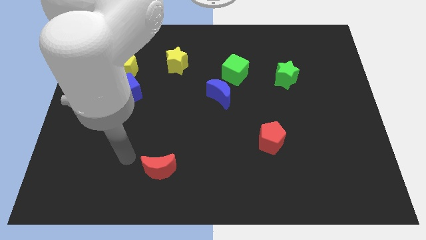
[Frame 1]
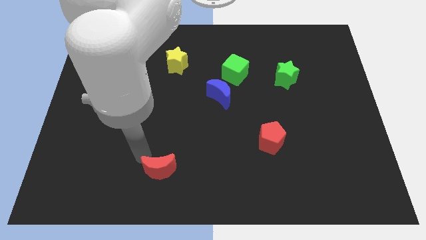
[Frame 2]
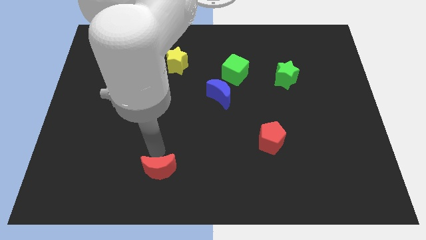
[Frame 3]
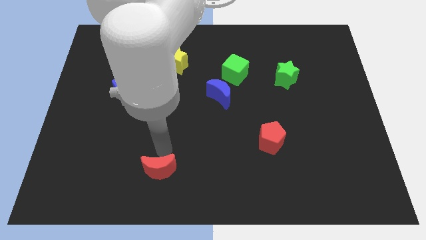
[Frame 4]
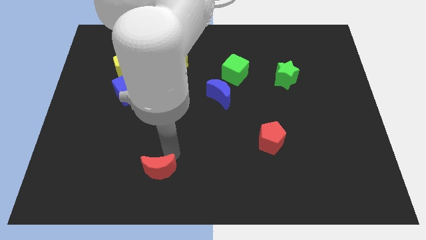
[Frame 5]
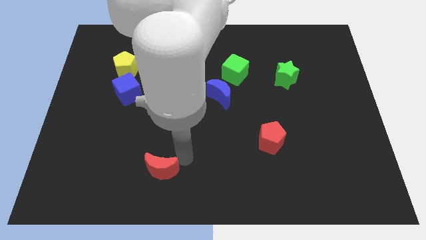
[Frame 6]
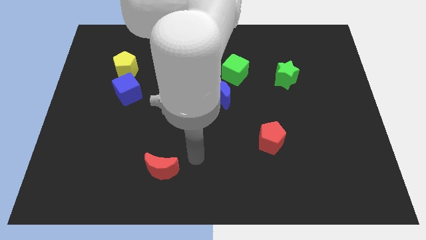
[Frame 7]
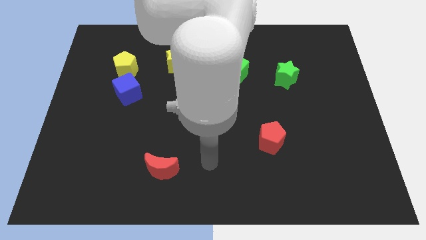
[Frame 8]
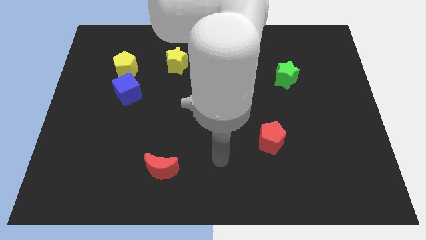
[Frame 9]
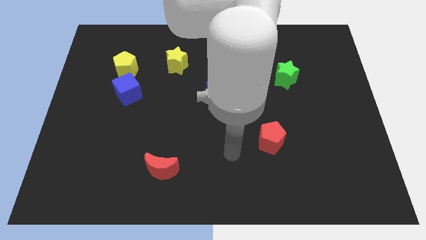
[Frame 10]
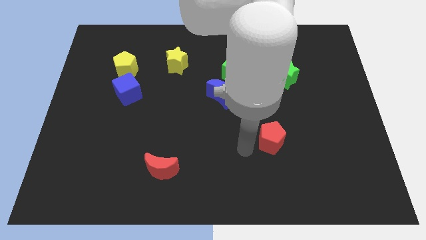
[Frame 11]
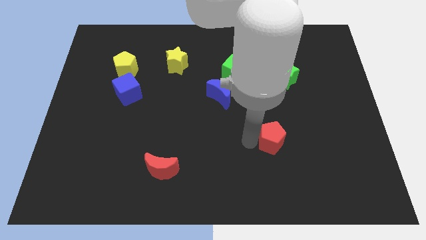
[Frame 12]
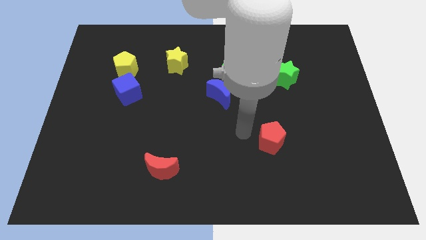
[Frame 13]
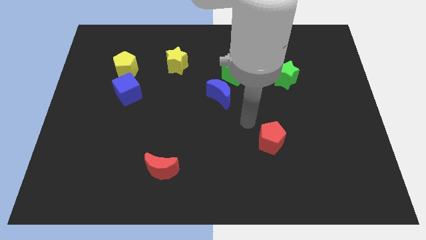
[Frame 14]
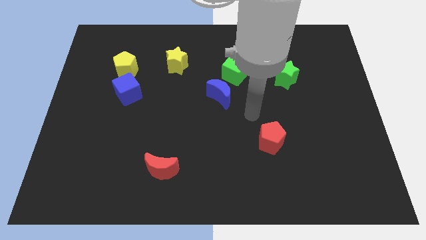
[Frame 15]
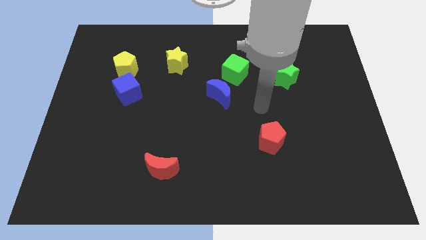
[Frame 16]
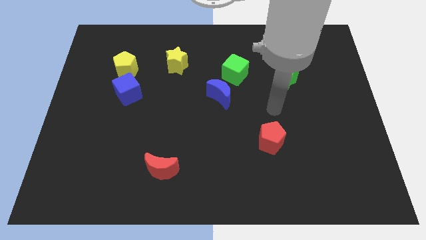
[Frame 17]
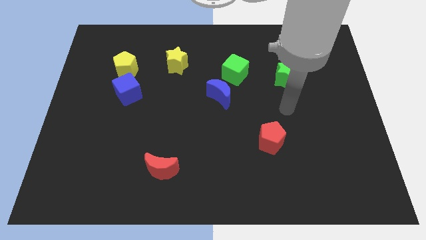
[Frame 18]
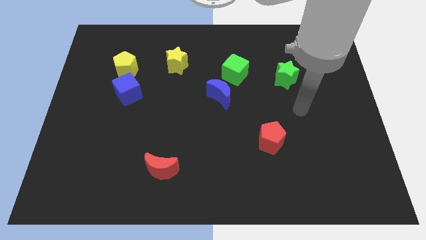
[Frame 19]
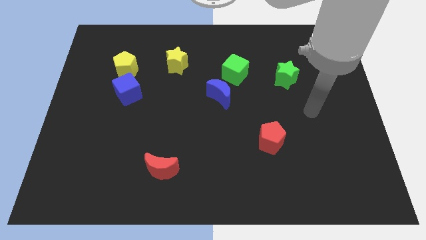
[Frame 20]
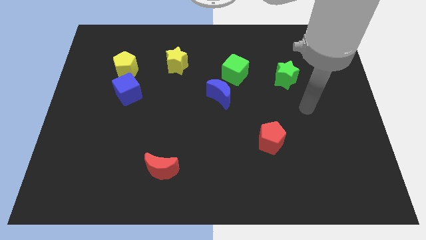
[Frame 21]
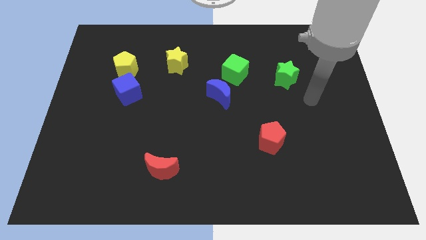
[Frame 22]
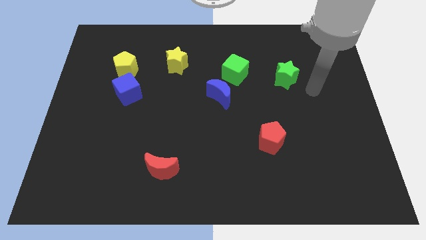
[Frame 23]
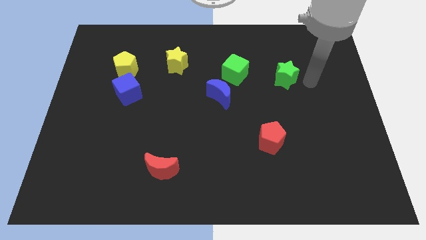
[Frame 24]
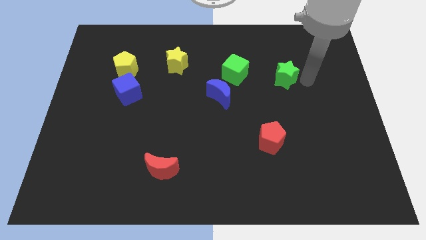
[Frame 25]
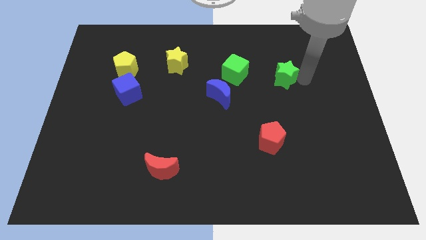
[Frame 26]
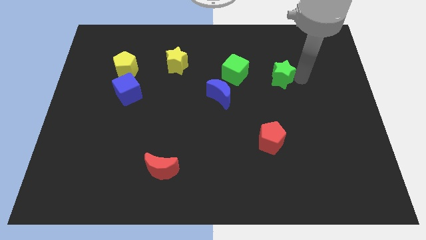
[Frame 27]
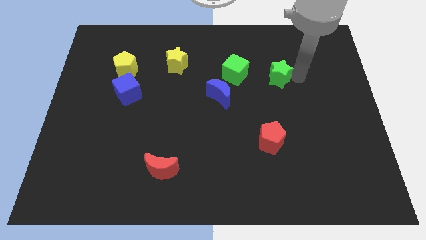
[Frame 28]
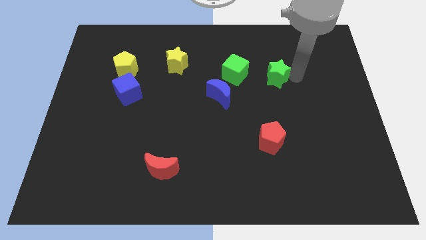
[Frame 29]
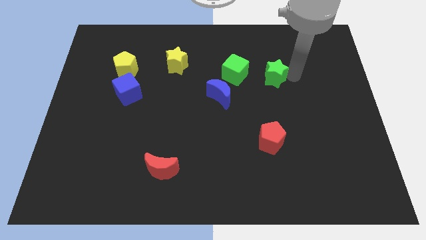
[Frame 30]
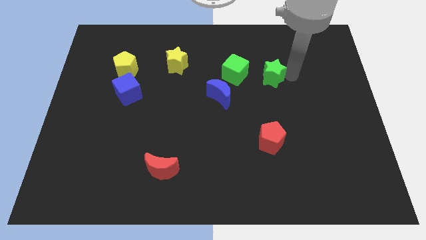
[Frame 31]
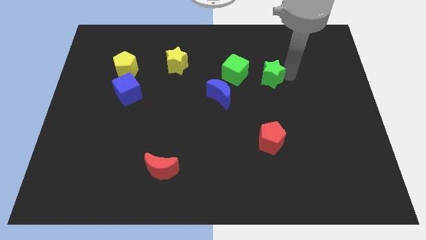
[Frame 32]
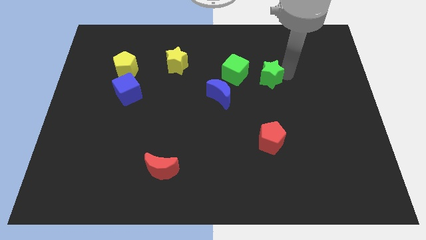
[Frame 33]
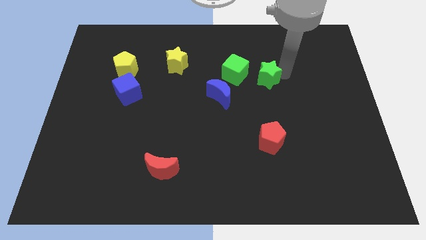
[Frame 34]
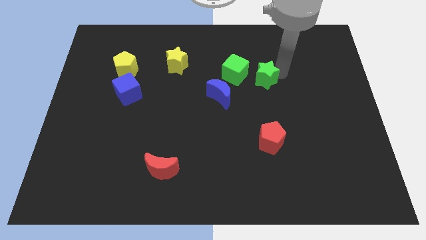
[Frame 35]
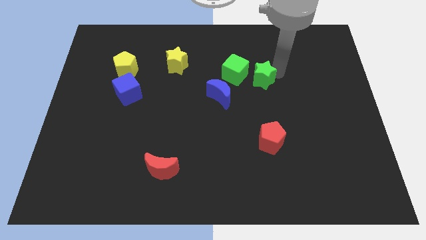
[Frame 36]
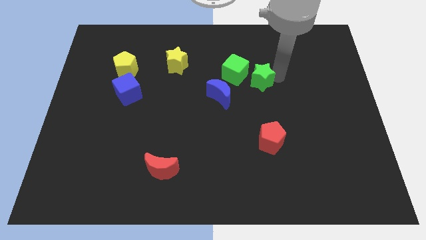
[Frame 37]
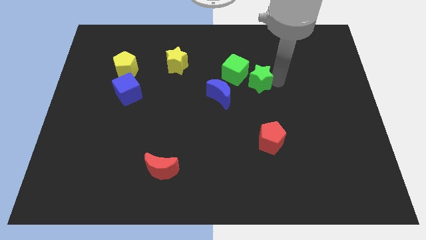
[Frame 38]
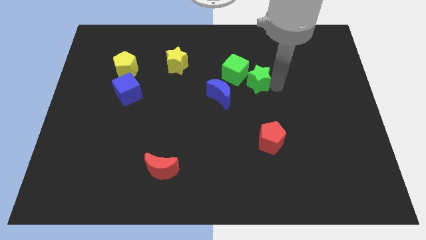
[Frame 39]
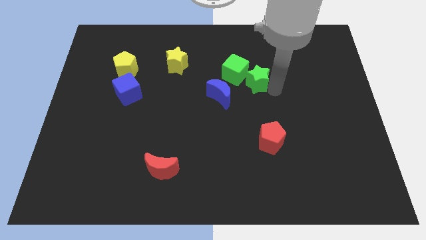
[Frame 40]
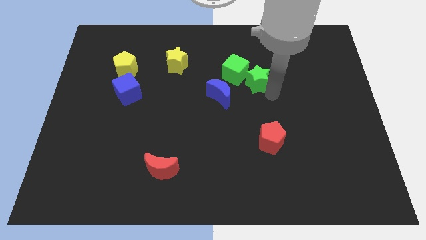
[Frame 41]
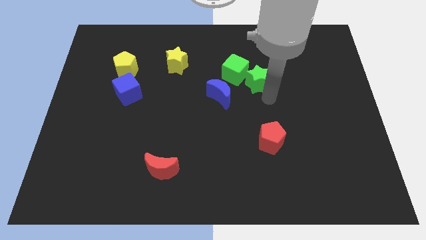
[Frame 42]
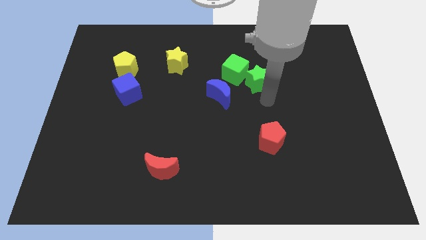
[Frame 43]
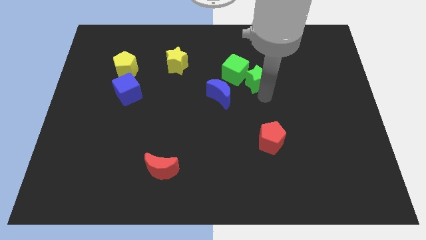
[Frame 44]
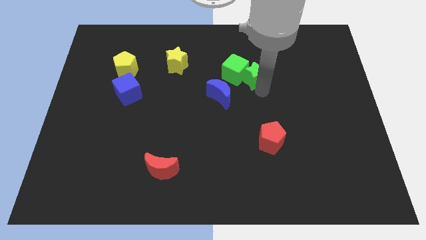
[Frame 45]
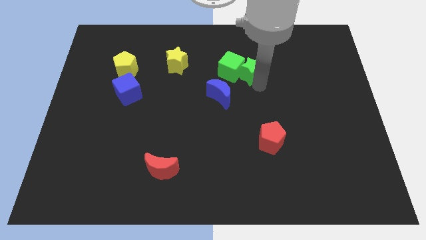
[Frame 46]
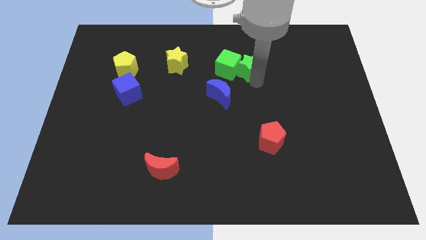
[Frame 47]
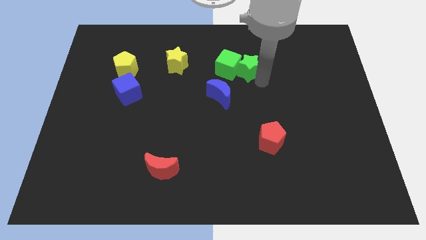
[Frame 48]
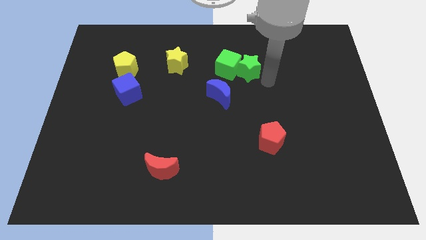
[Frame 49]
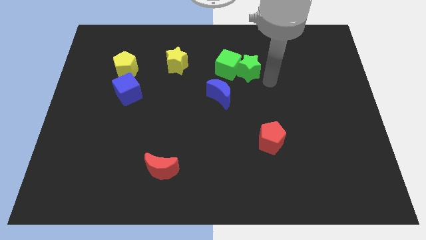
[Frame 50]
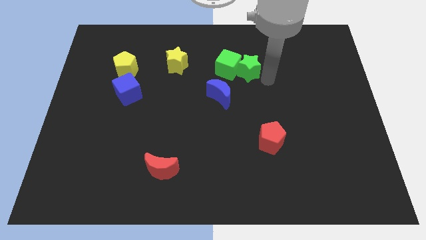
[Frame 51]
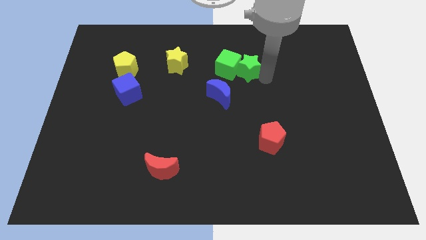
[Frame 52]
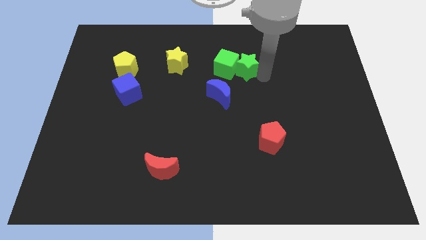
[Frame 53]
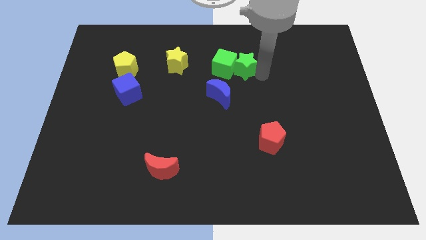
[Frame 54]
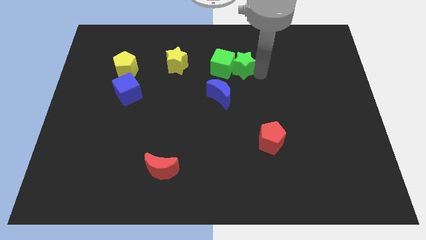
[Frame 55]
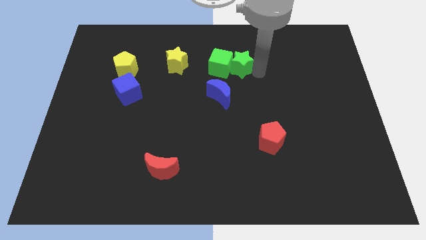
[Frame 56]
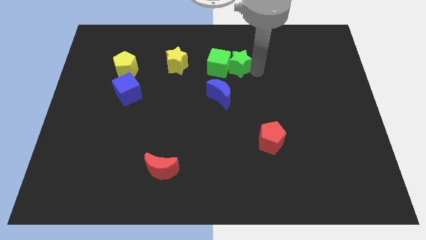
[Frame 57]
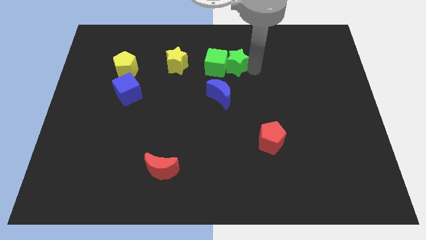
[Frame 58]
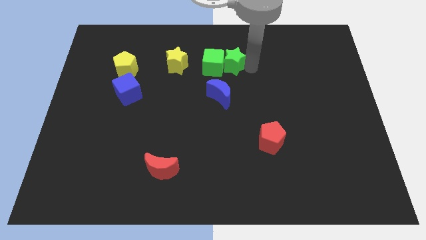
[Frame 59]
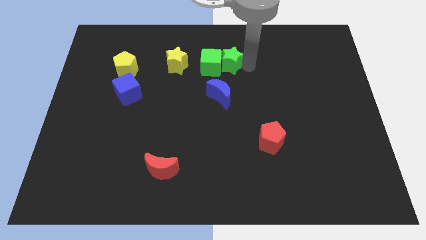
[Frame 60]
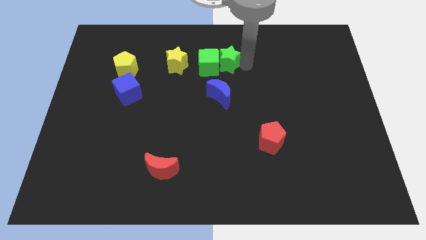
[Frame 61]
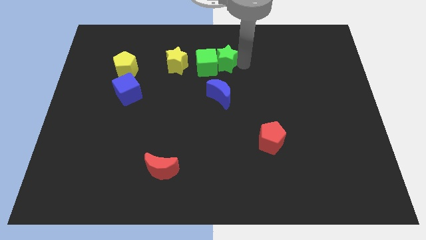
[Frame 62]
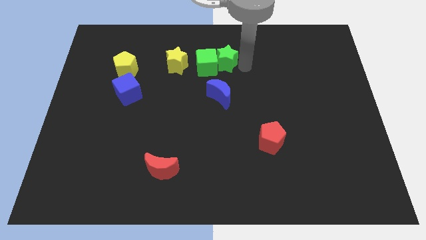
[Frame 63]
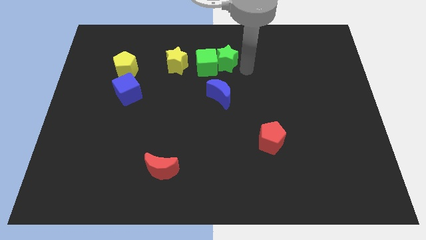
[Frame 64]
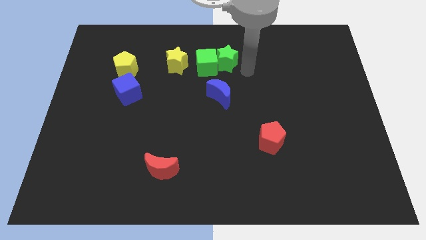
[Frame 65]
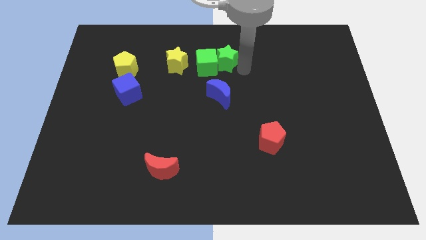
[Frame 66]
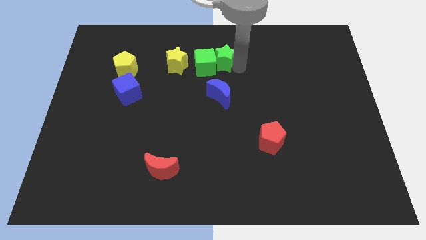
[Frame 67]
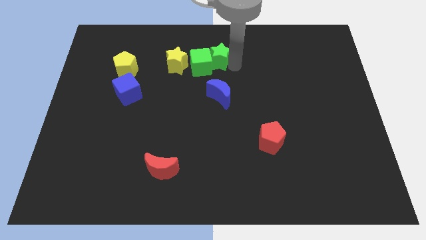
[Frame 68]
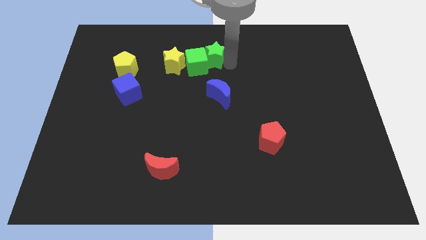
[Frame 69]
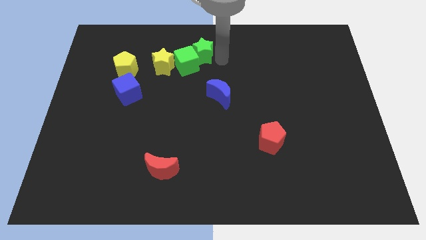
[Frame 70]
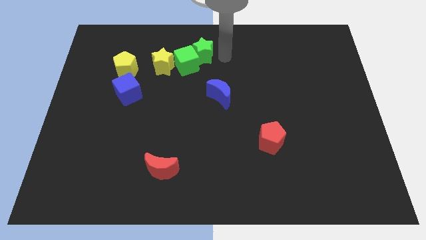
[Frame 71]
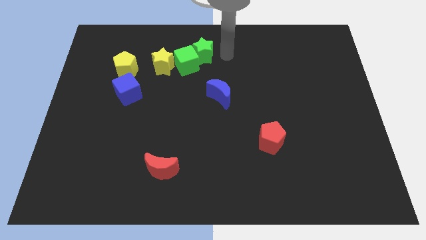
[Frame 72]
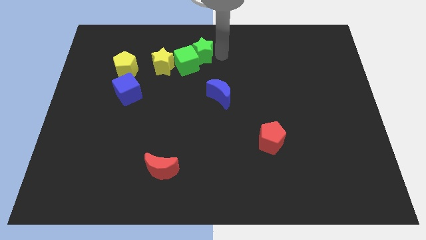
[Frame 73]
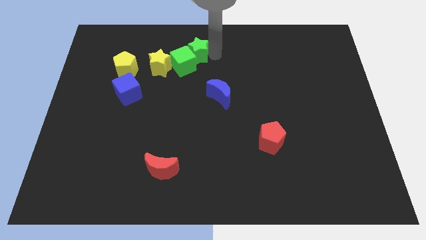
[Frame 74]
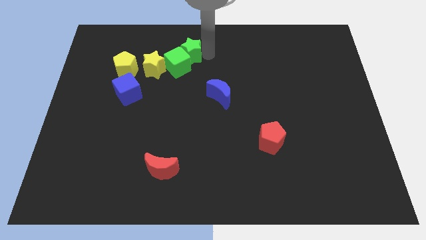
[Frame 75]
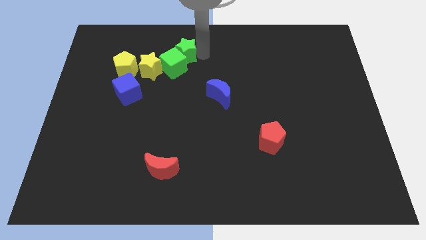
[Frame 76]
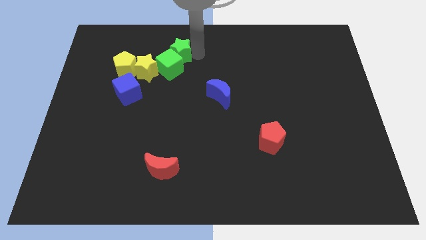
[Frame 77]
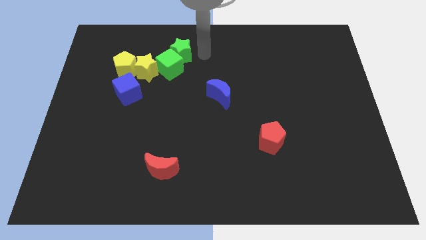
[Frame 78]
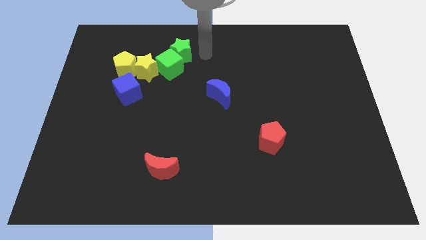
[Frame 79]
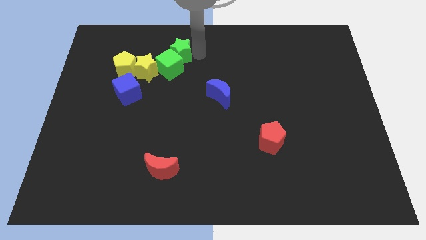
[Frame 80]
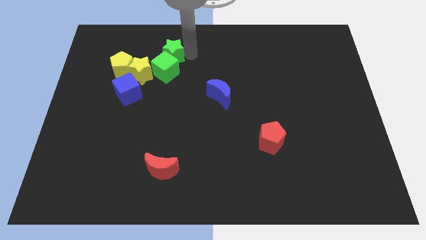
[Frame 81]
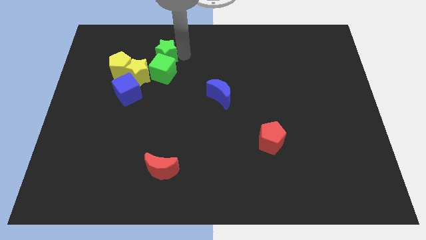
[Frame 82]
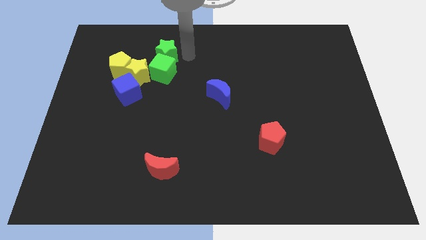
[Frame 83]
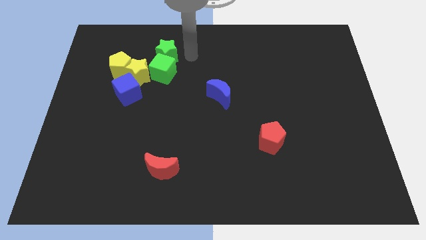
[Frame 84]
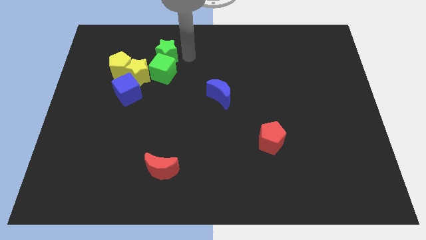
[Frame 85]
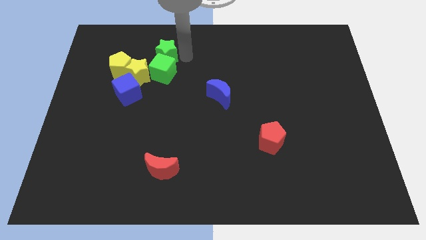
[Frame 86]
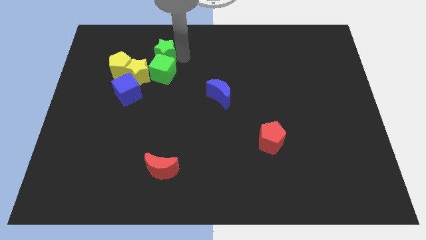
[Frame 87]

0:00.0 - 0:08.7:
slide the green star to the top right of the yellow pentagon
